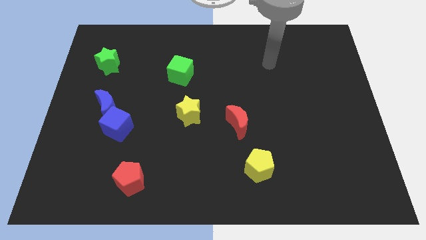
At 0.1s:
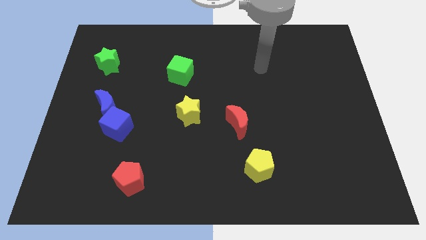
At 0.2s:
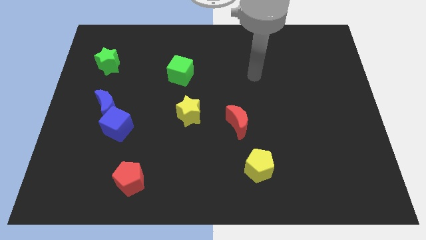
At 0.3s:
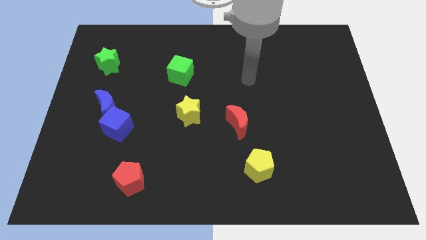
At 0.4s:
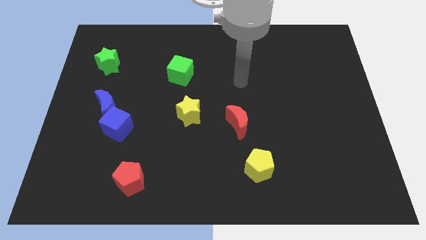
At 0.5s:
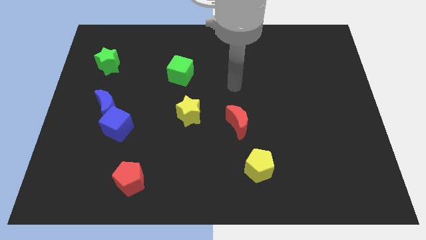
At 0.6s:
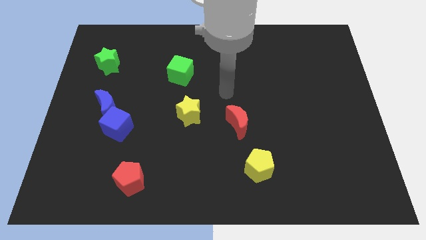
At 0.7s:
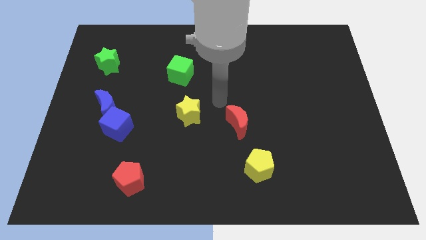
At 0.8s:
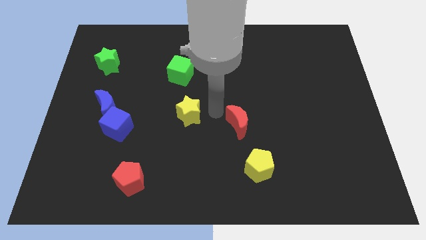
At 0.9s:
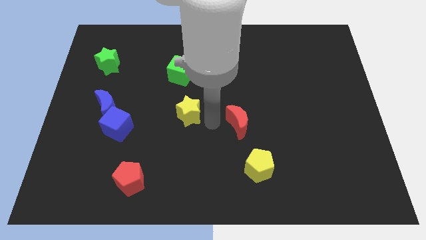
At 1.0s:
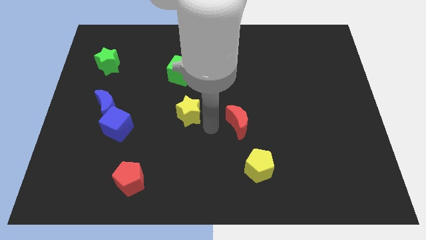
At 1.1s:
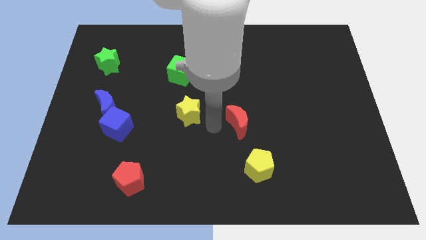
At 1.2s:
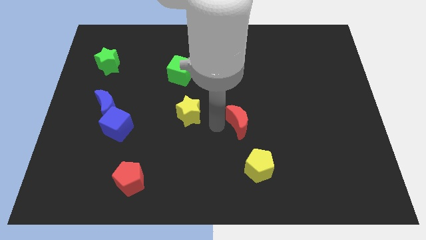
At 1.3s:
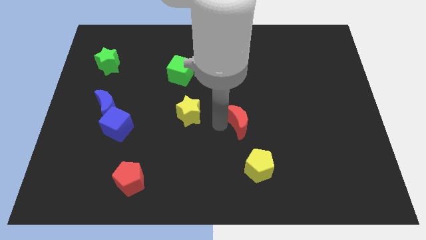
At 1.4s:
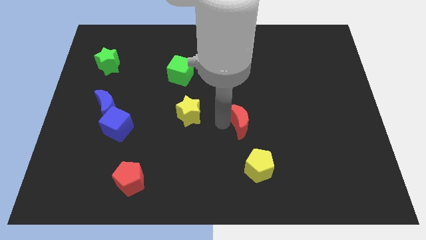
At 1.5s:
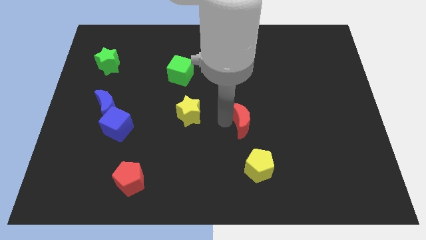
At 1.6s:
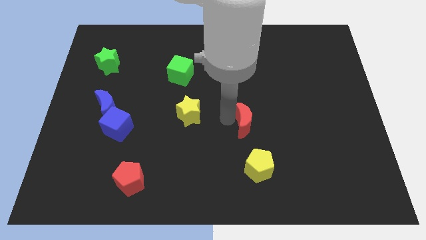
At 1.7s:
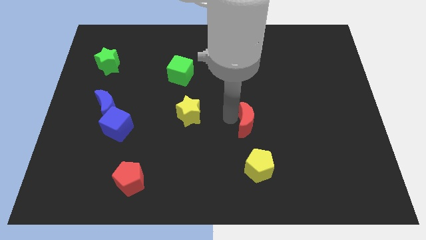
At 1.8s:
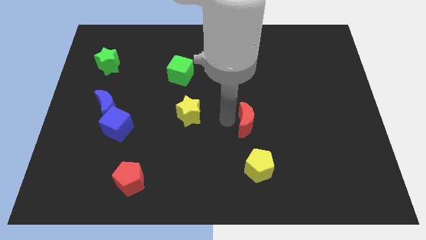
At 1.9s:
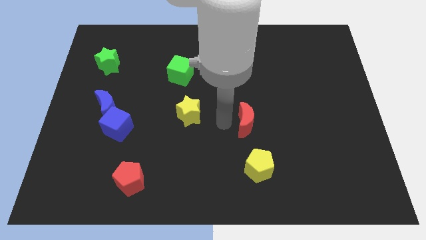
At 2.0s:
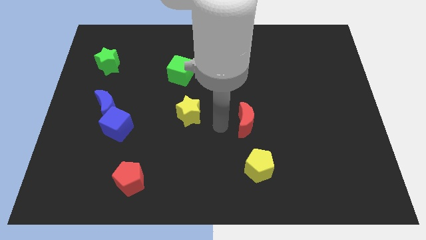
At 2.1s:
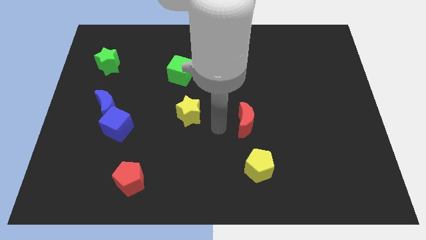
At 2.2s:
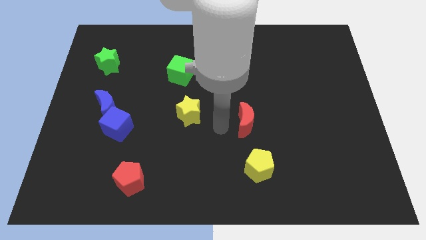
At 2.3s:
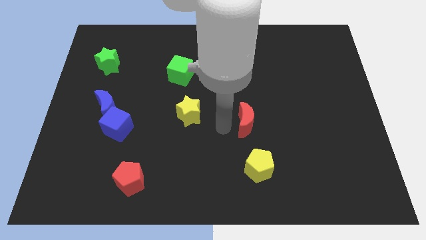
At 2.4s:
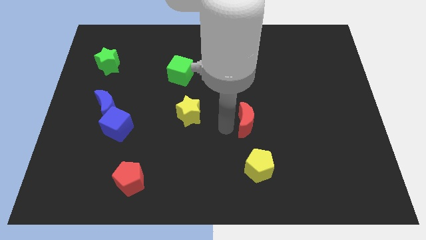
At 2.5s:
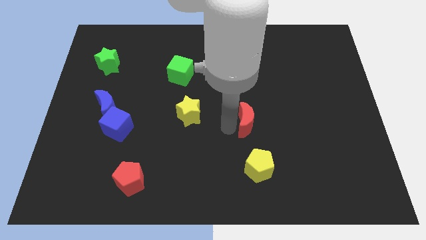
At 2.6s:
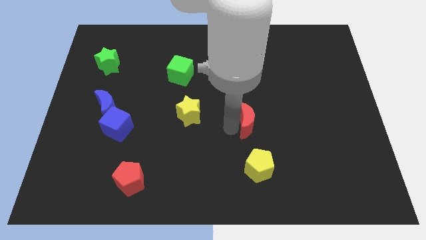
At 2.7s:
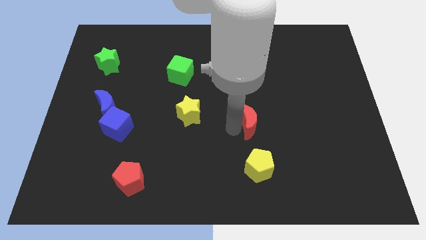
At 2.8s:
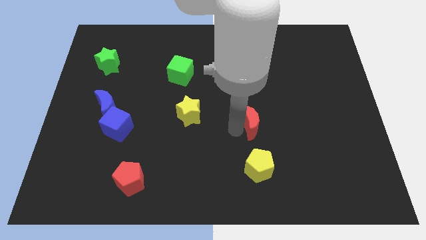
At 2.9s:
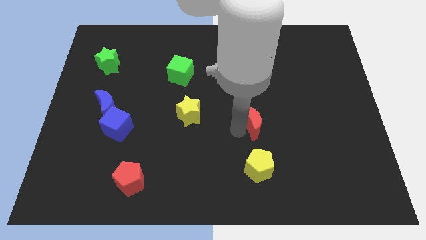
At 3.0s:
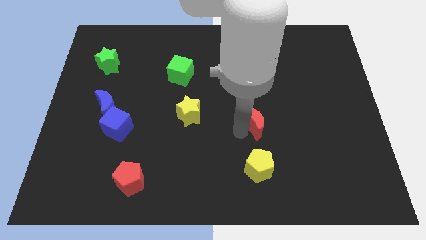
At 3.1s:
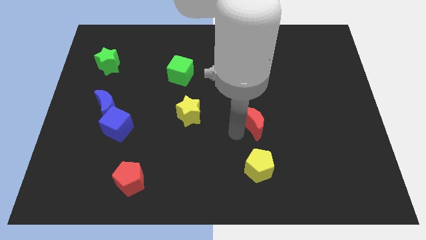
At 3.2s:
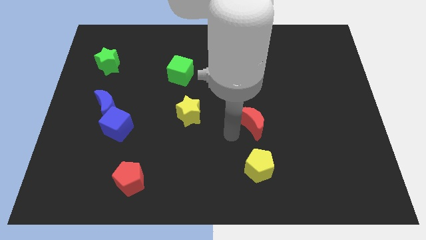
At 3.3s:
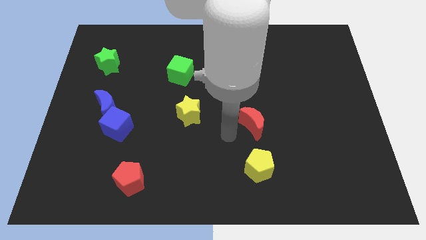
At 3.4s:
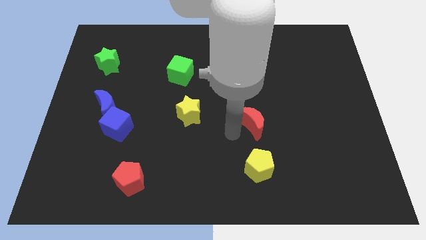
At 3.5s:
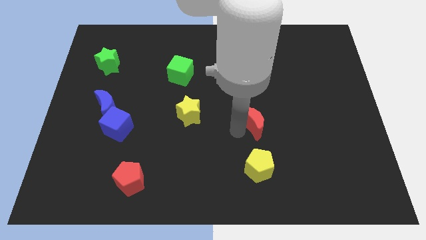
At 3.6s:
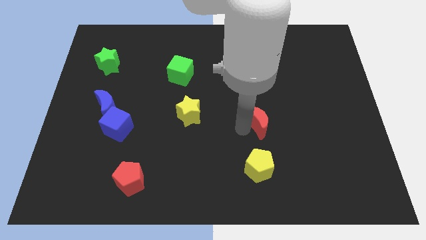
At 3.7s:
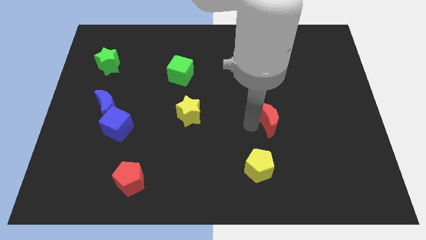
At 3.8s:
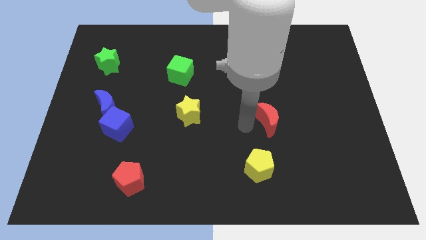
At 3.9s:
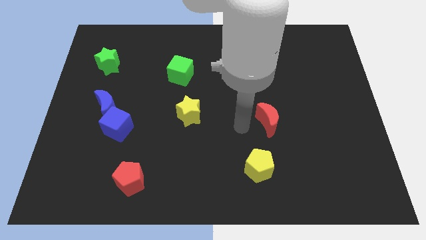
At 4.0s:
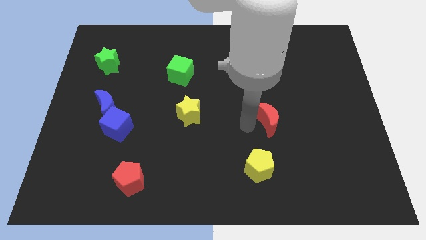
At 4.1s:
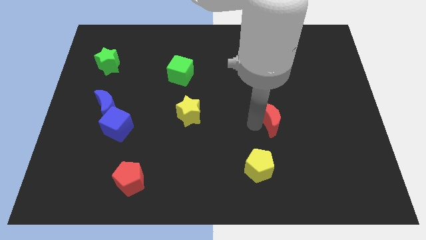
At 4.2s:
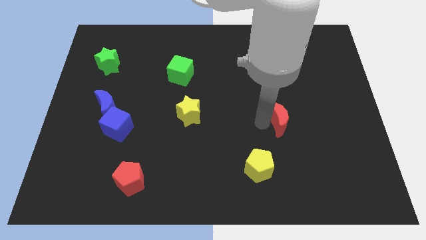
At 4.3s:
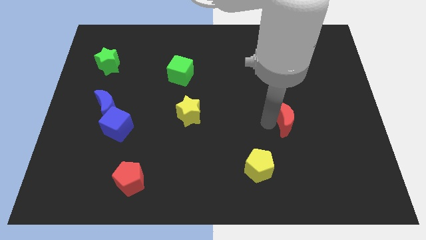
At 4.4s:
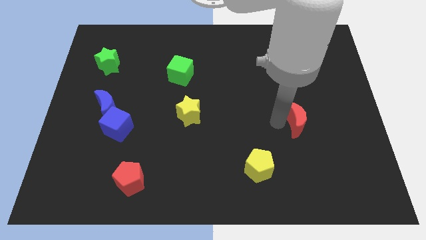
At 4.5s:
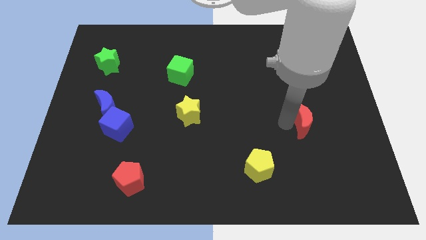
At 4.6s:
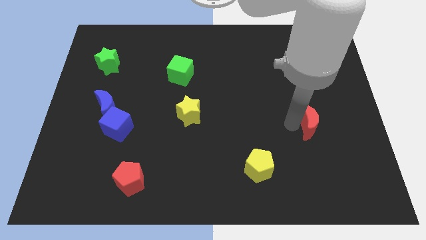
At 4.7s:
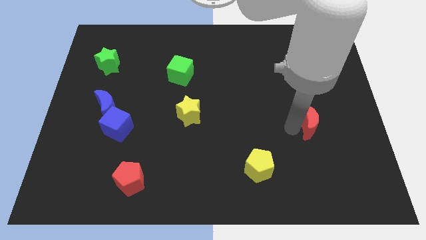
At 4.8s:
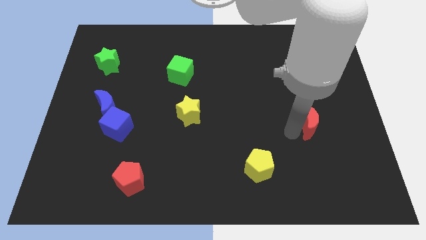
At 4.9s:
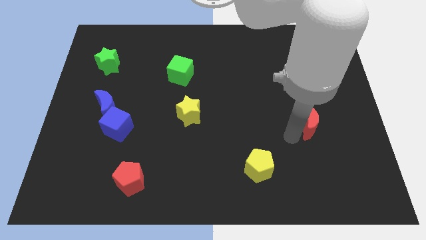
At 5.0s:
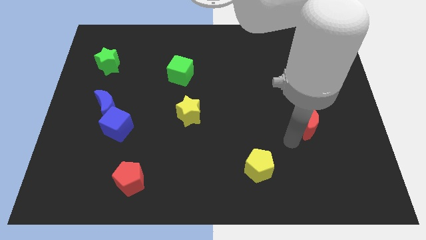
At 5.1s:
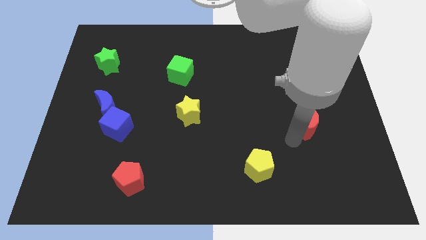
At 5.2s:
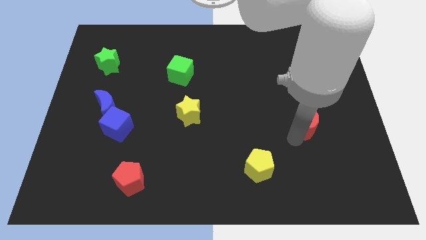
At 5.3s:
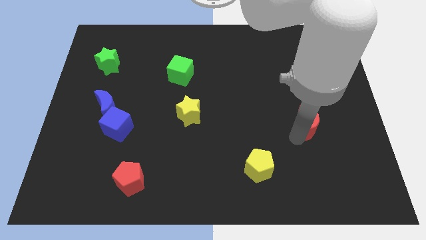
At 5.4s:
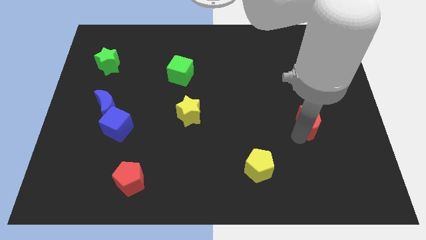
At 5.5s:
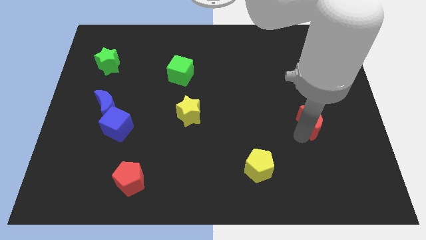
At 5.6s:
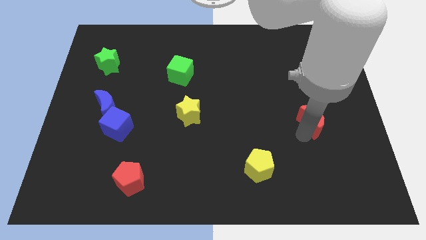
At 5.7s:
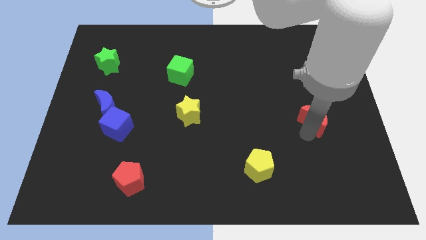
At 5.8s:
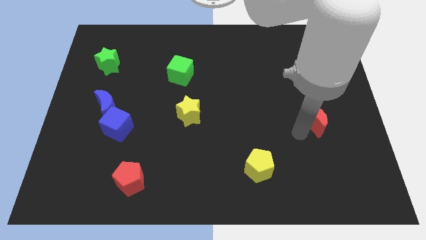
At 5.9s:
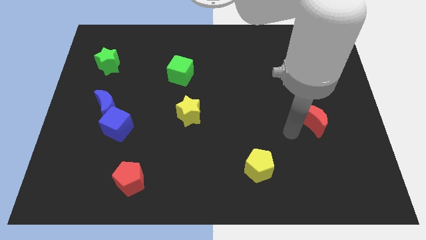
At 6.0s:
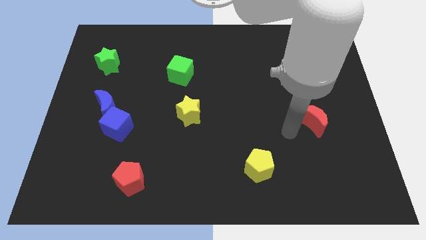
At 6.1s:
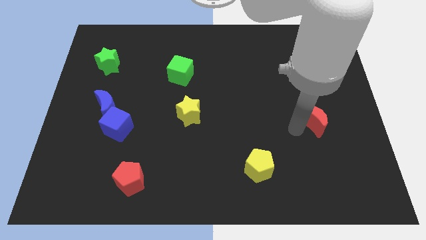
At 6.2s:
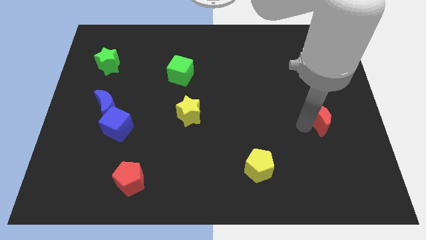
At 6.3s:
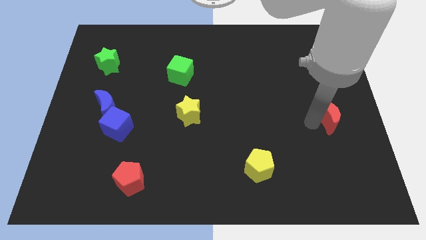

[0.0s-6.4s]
push the red moon to the right side of the board

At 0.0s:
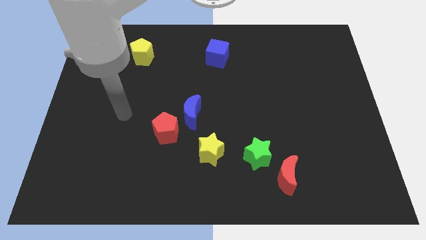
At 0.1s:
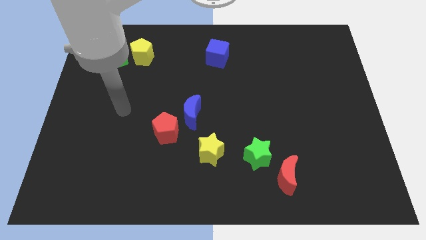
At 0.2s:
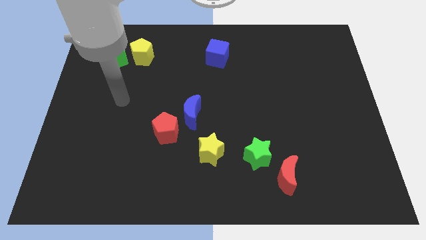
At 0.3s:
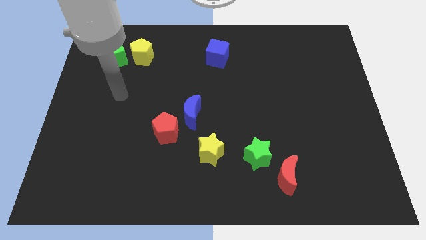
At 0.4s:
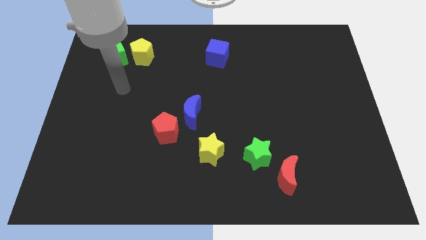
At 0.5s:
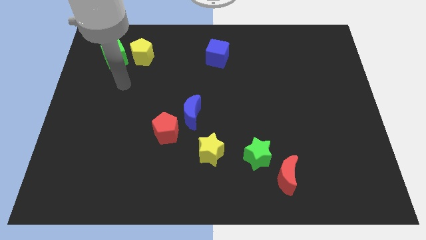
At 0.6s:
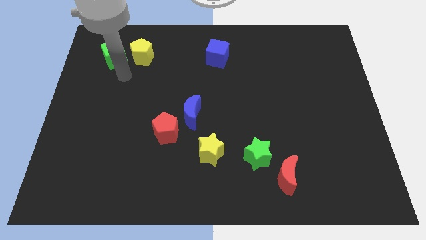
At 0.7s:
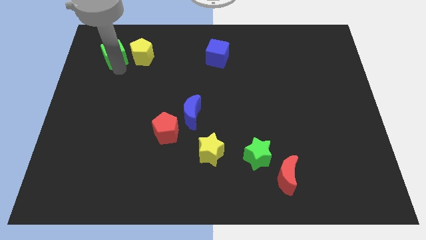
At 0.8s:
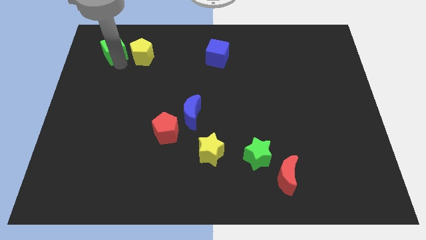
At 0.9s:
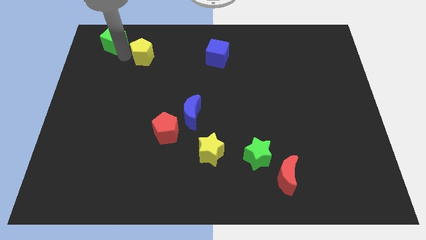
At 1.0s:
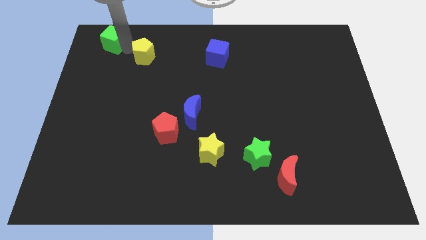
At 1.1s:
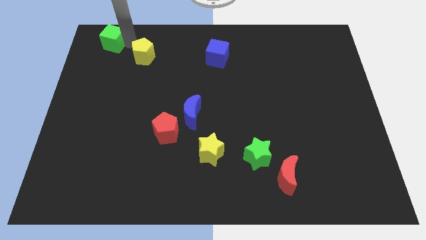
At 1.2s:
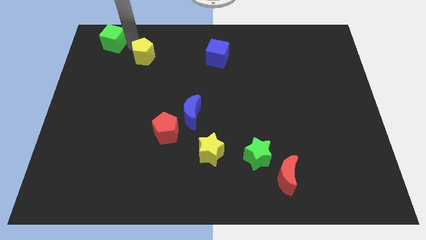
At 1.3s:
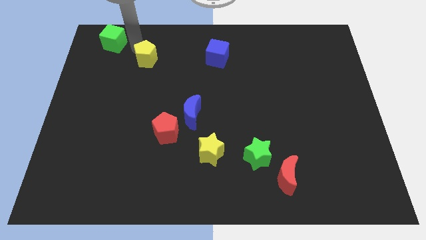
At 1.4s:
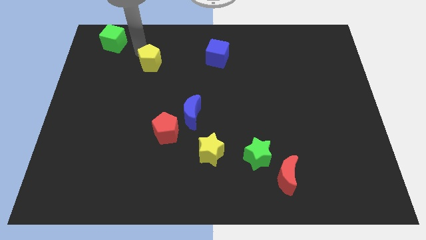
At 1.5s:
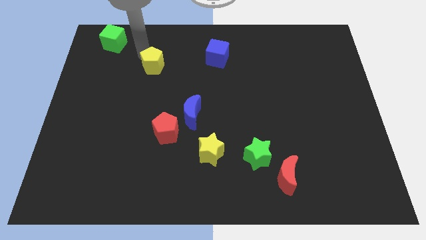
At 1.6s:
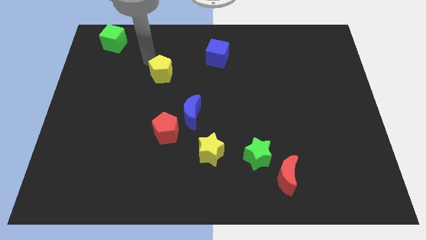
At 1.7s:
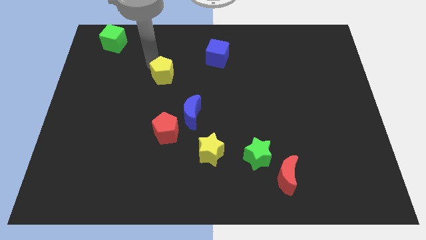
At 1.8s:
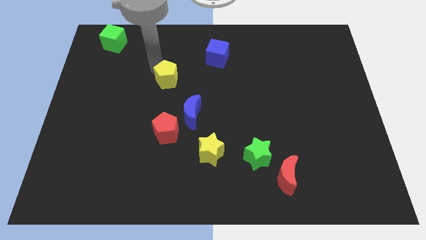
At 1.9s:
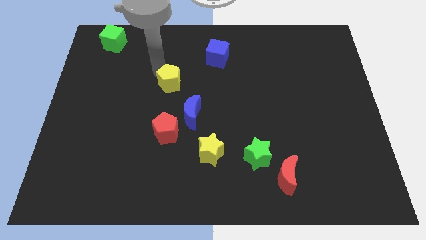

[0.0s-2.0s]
push the yellow pentagon to the center of the board
